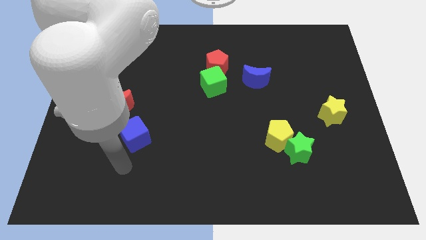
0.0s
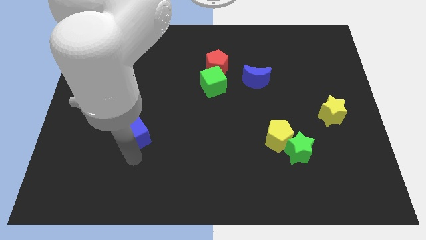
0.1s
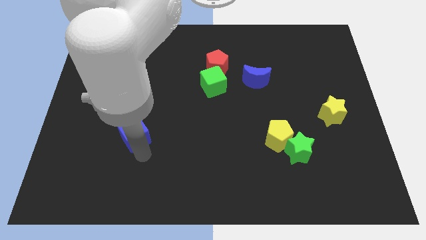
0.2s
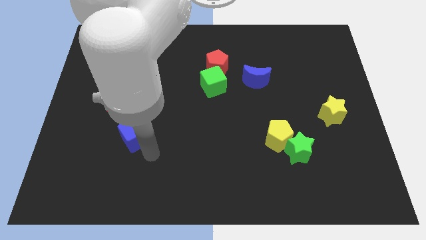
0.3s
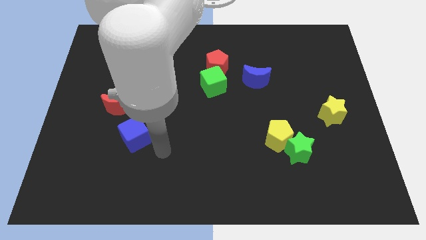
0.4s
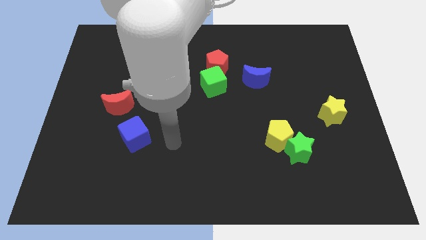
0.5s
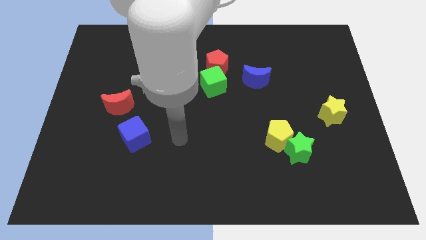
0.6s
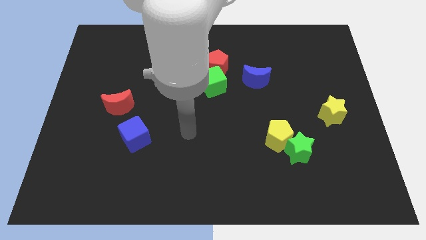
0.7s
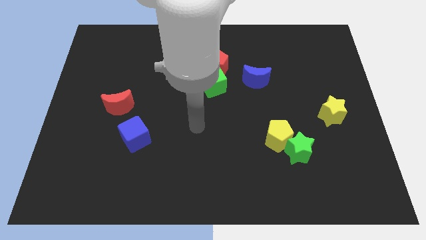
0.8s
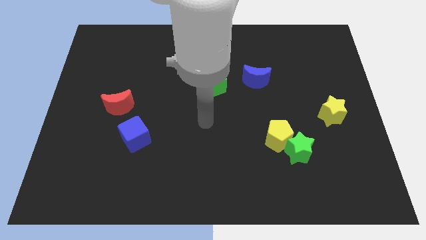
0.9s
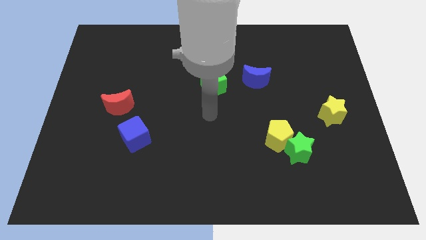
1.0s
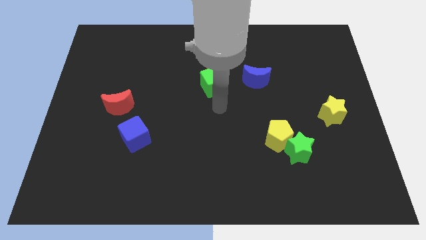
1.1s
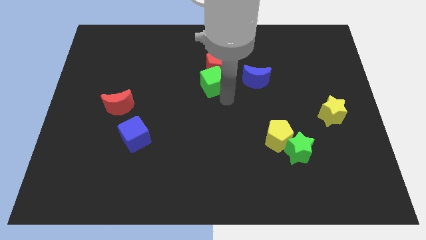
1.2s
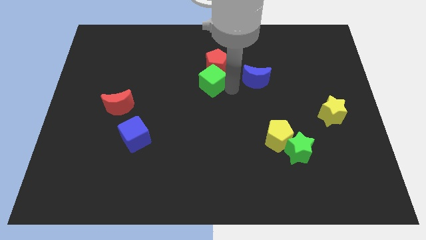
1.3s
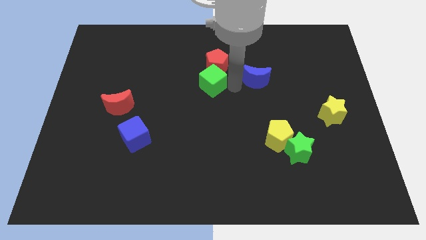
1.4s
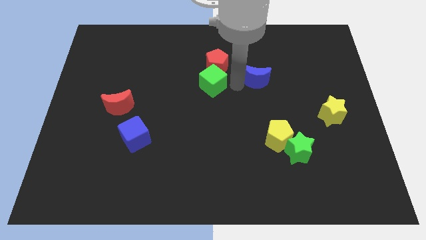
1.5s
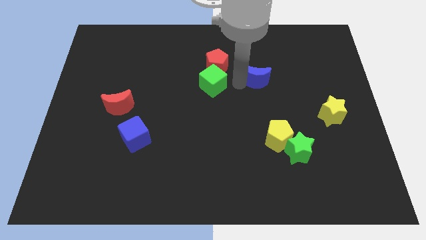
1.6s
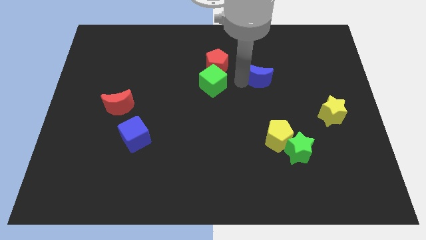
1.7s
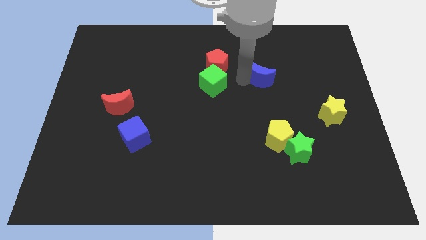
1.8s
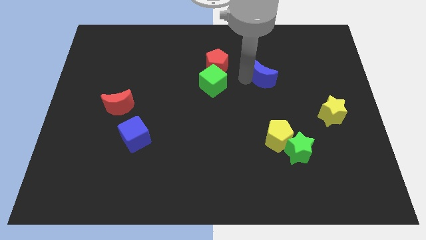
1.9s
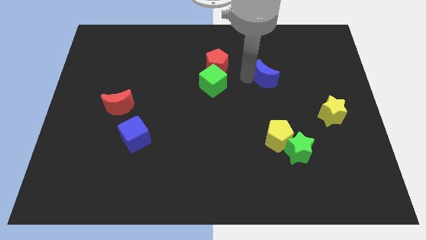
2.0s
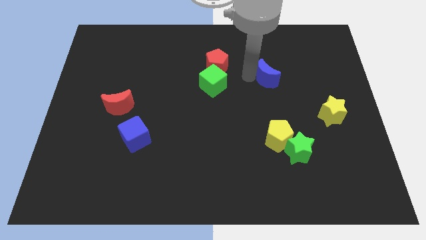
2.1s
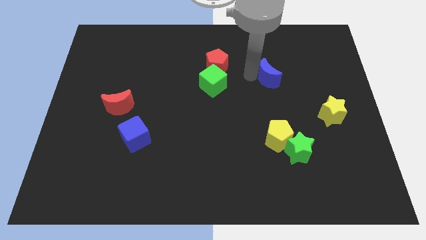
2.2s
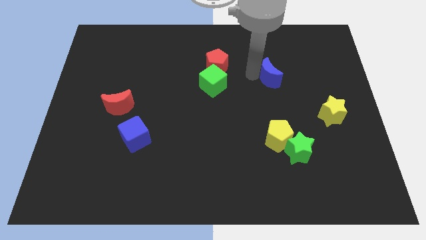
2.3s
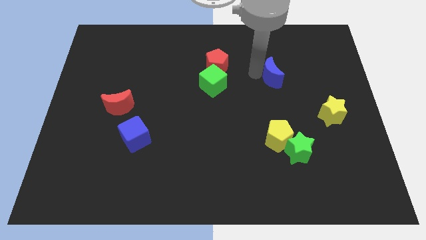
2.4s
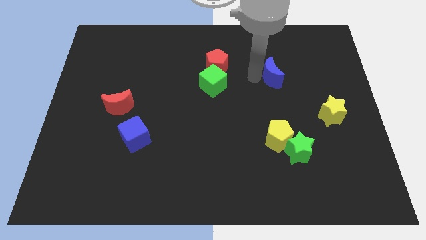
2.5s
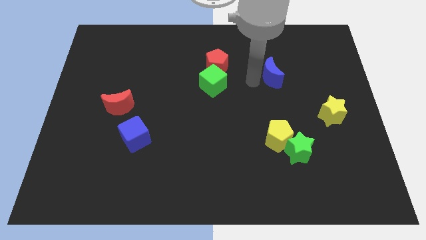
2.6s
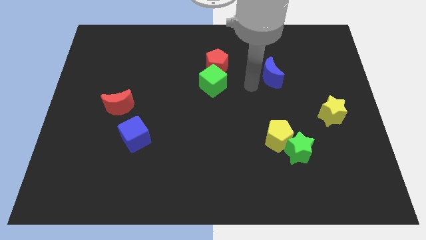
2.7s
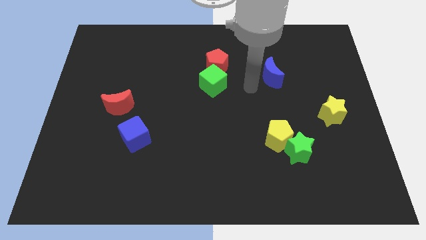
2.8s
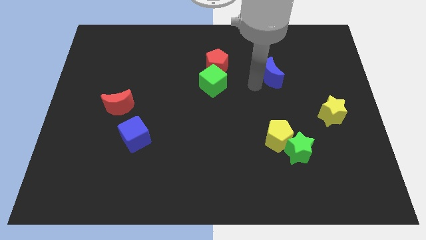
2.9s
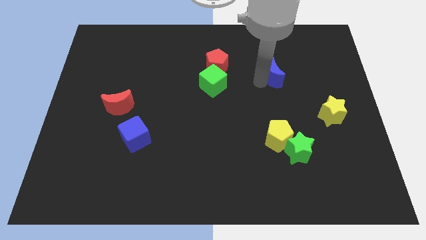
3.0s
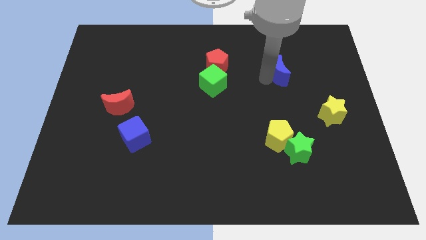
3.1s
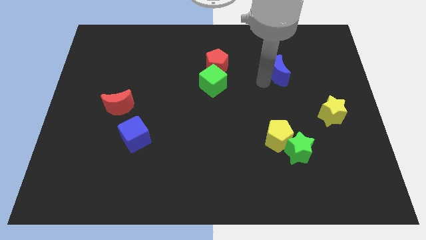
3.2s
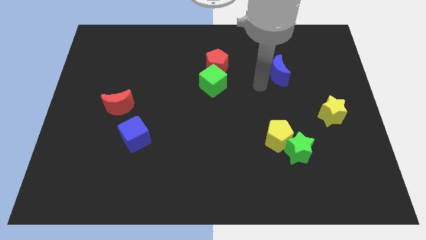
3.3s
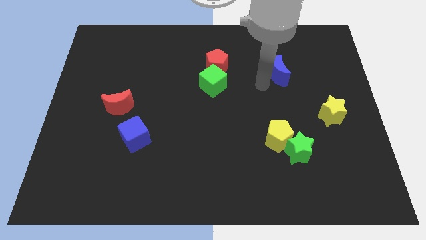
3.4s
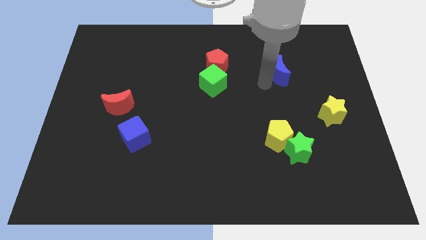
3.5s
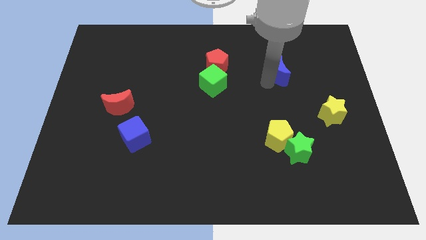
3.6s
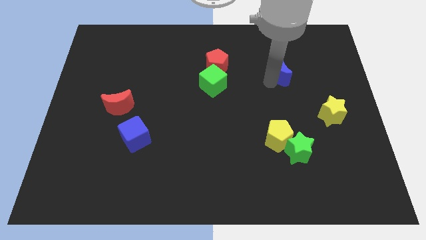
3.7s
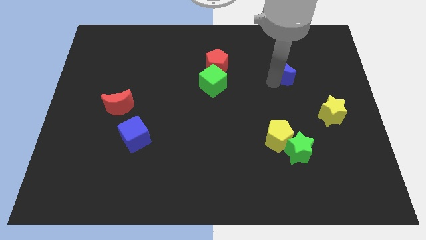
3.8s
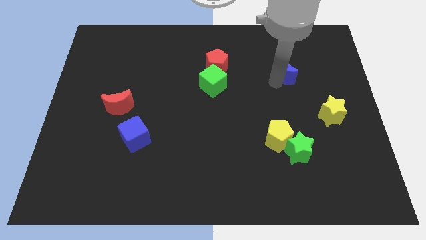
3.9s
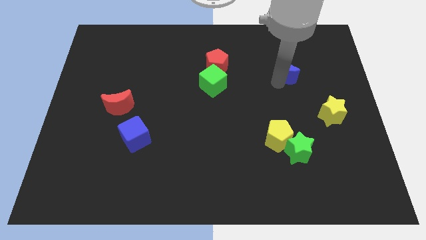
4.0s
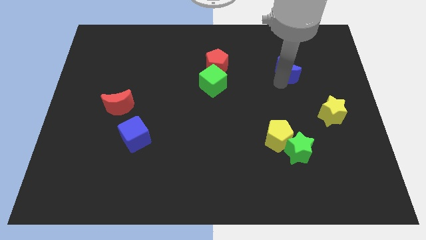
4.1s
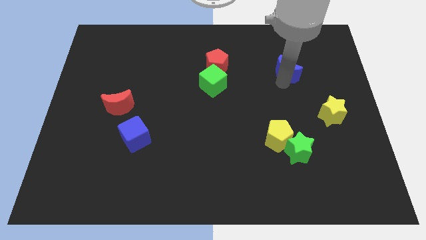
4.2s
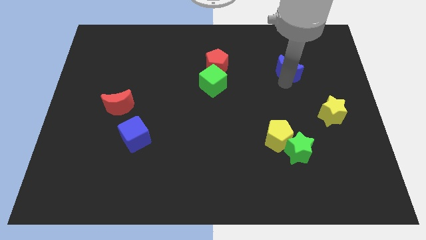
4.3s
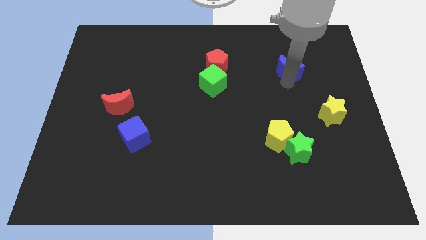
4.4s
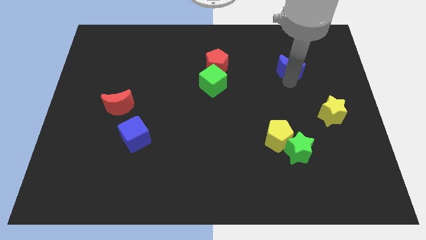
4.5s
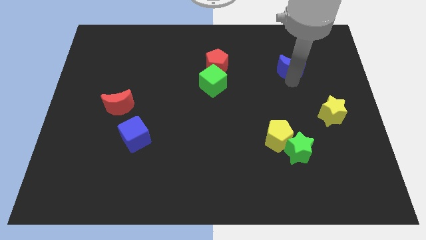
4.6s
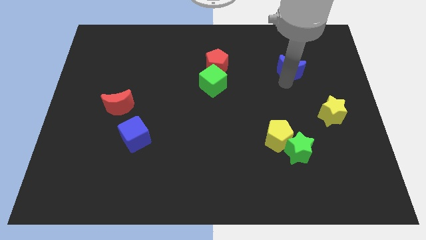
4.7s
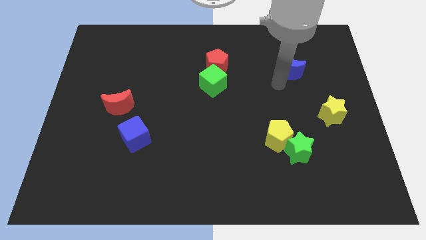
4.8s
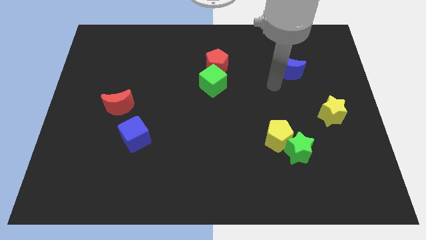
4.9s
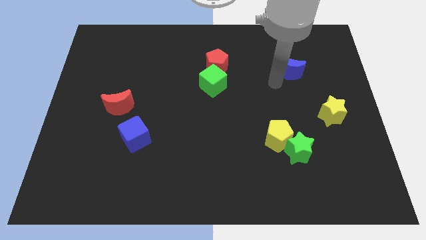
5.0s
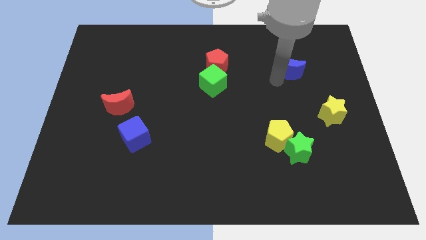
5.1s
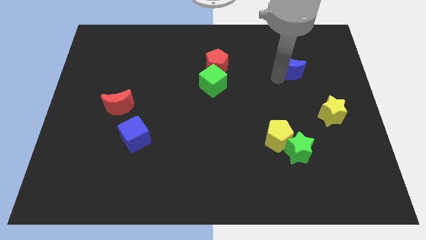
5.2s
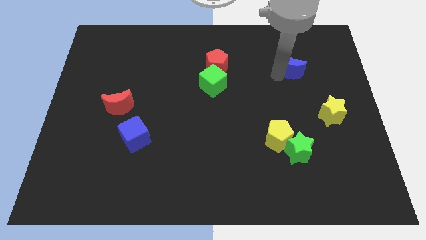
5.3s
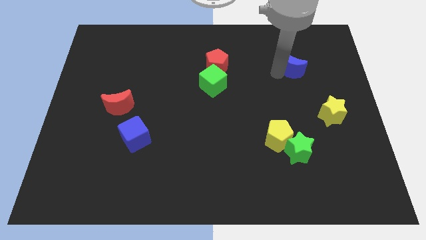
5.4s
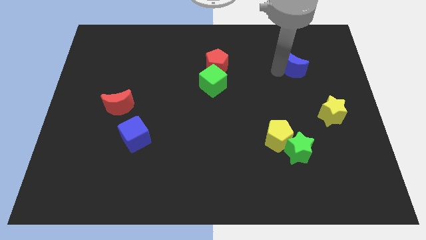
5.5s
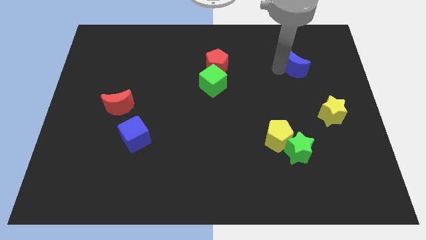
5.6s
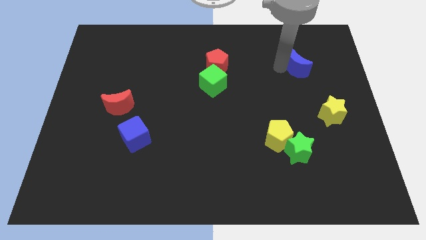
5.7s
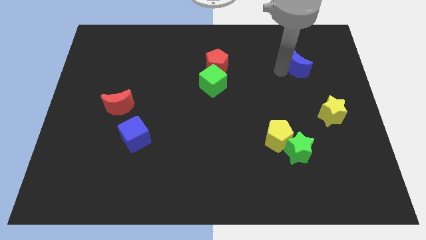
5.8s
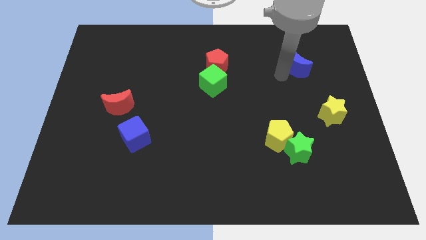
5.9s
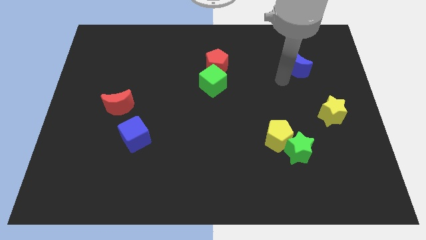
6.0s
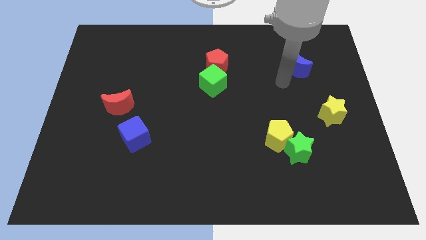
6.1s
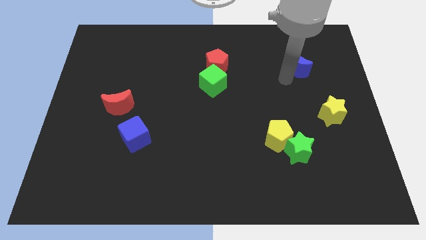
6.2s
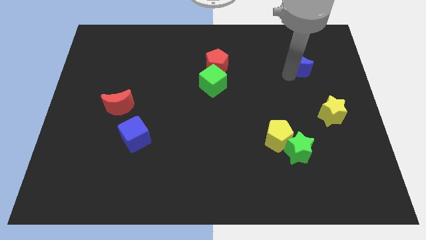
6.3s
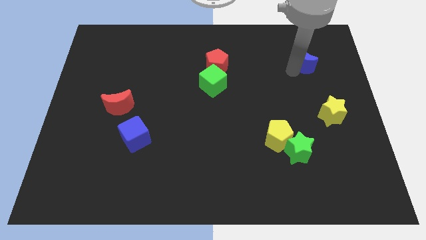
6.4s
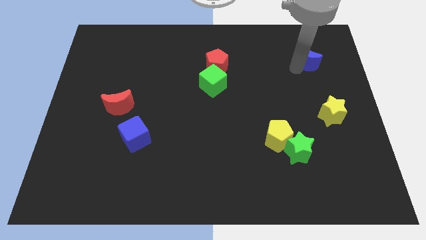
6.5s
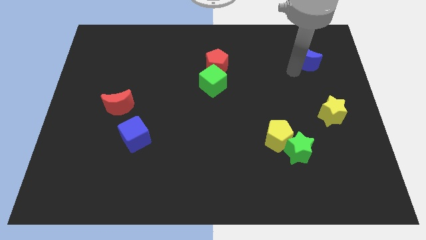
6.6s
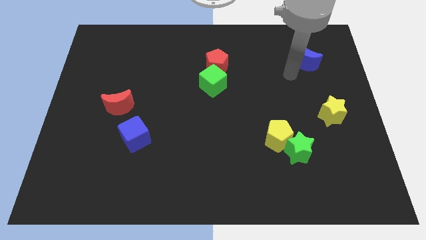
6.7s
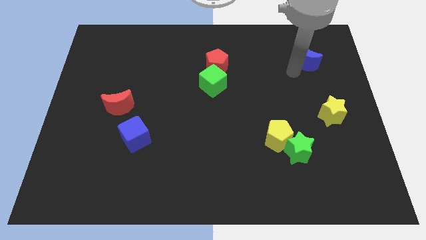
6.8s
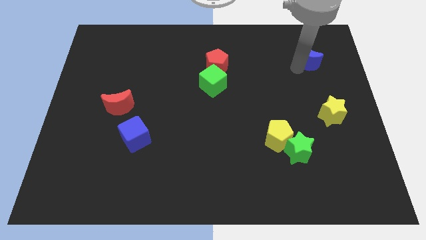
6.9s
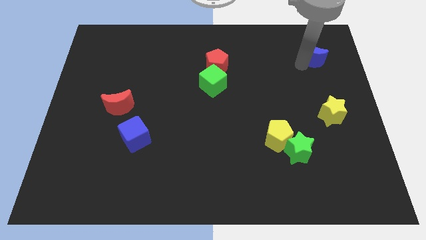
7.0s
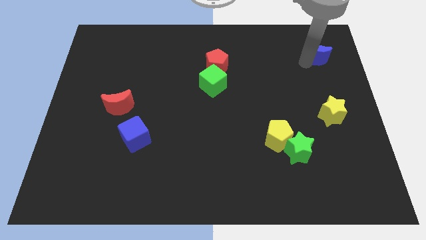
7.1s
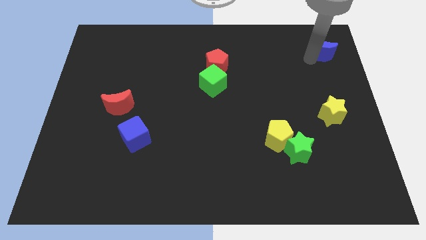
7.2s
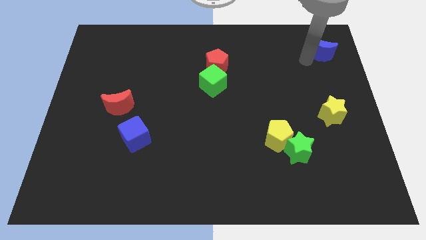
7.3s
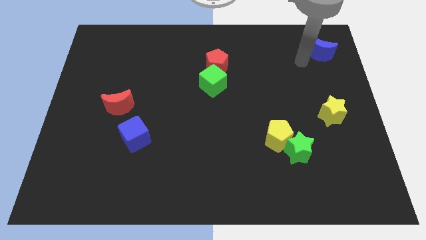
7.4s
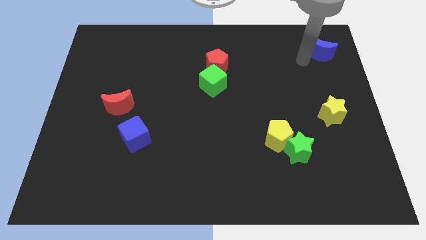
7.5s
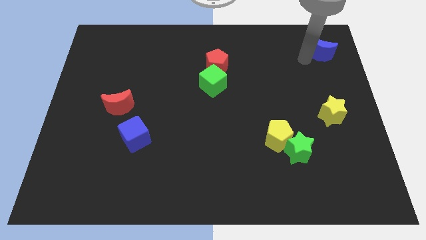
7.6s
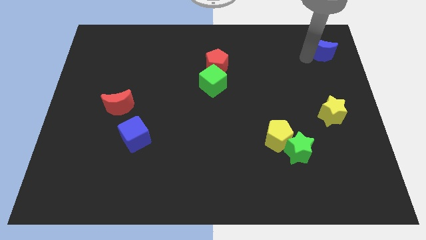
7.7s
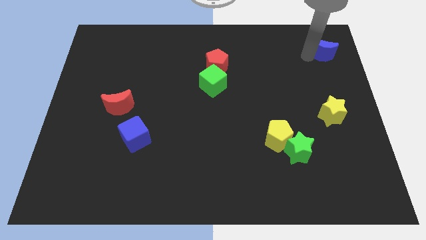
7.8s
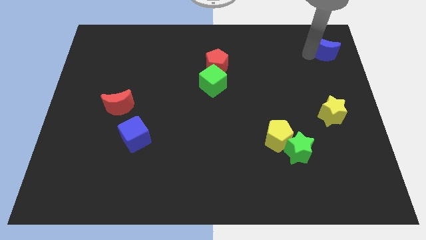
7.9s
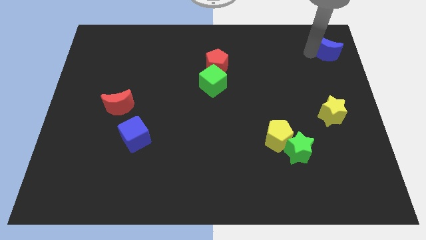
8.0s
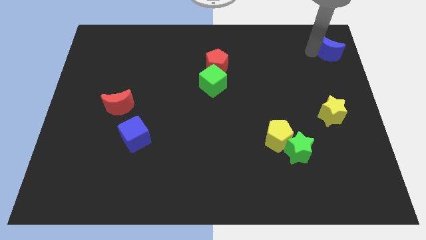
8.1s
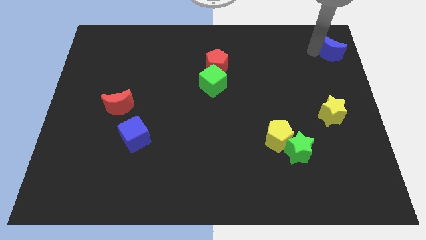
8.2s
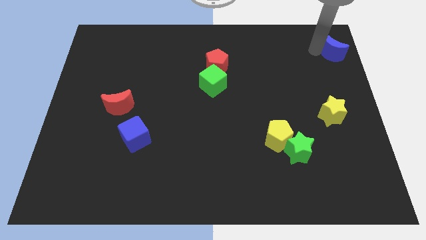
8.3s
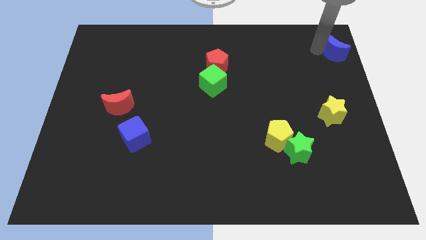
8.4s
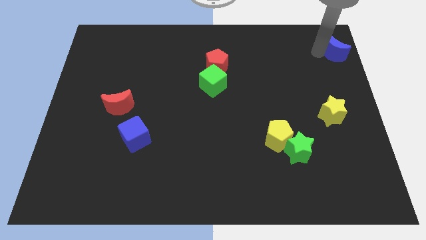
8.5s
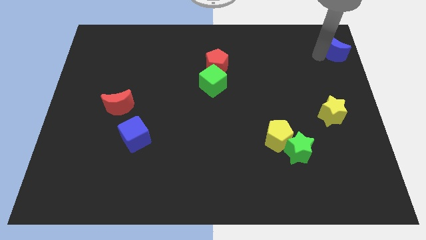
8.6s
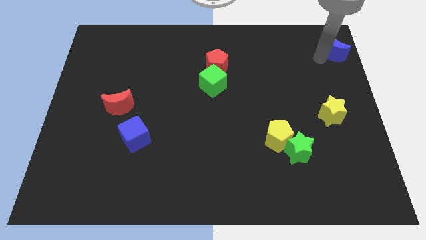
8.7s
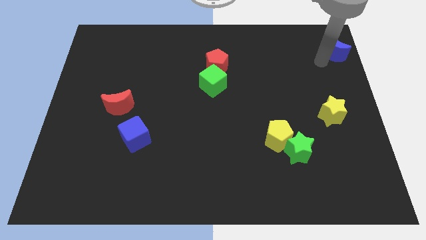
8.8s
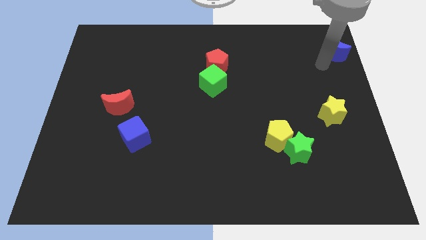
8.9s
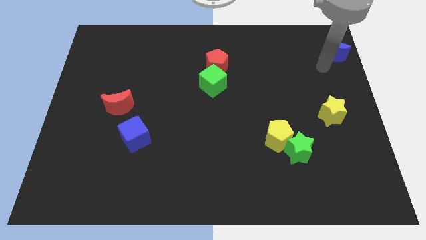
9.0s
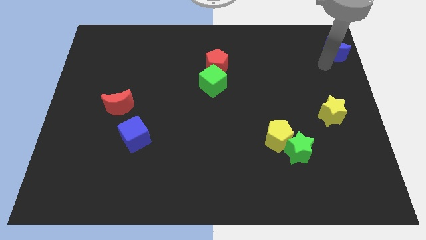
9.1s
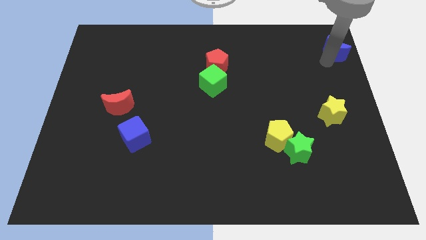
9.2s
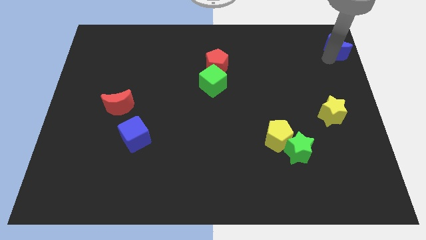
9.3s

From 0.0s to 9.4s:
move the blue moon to the top right
